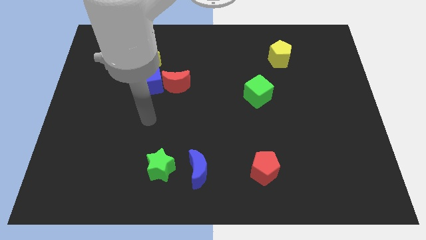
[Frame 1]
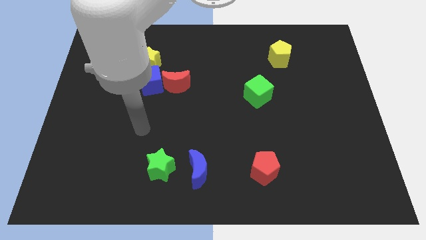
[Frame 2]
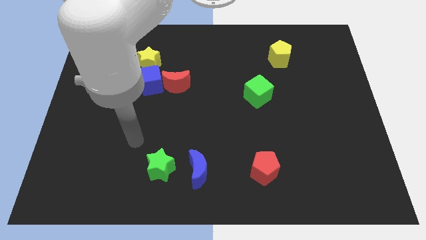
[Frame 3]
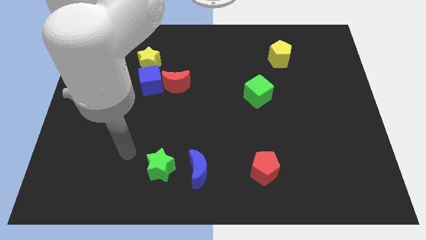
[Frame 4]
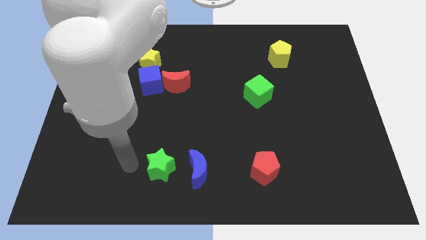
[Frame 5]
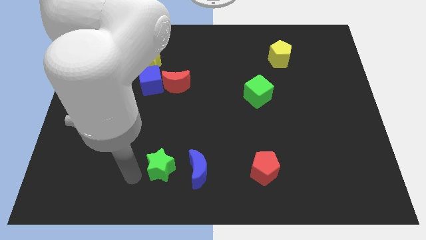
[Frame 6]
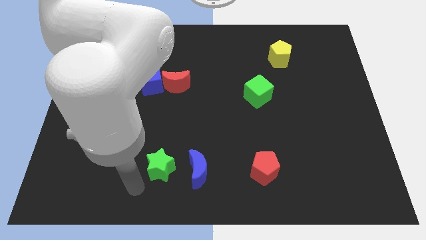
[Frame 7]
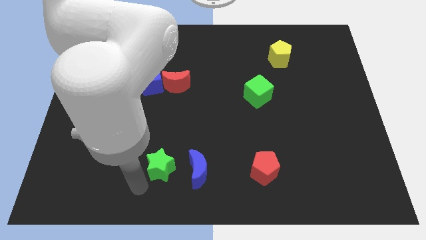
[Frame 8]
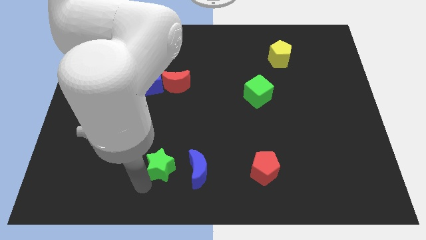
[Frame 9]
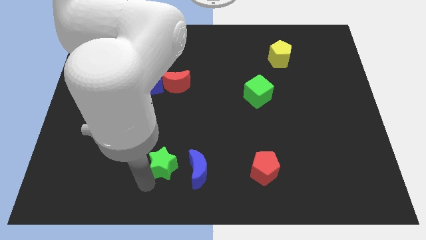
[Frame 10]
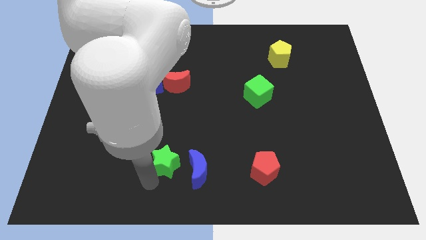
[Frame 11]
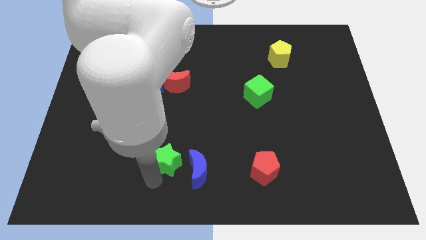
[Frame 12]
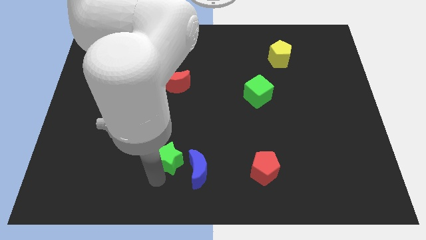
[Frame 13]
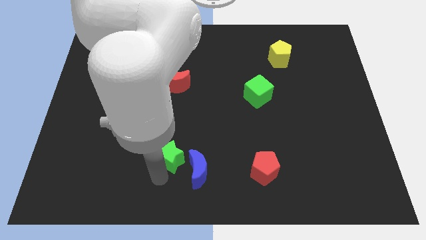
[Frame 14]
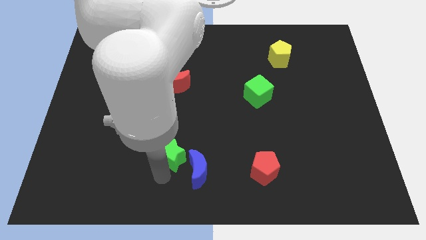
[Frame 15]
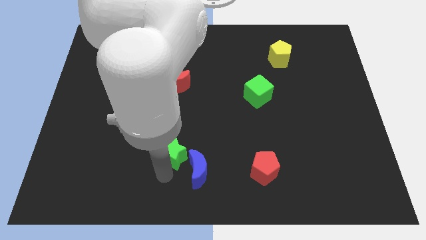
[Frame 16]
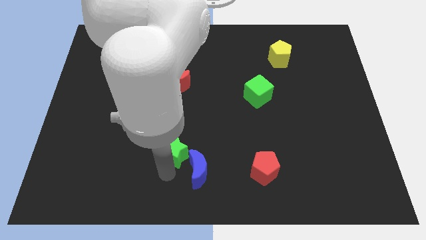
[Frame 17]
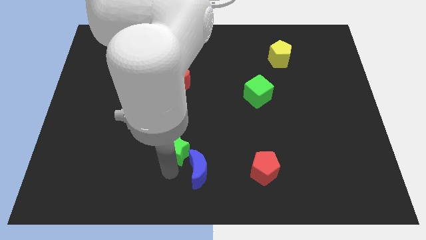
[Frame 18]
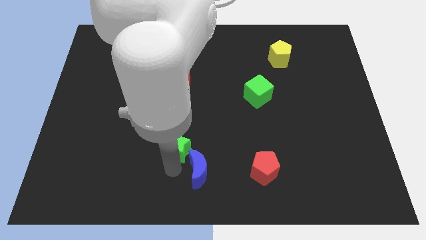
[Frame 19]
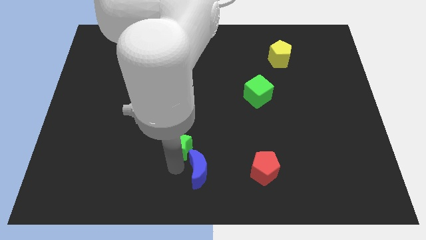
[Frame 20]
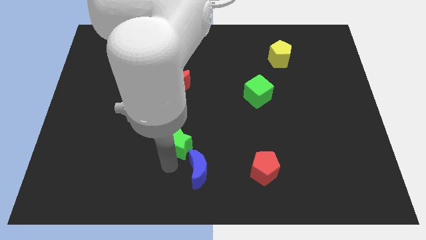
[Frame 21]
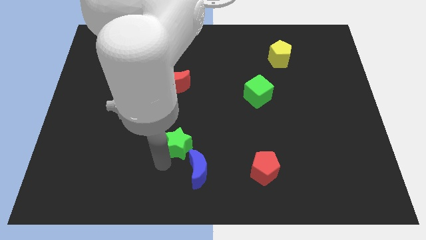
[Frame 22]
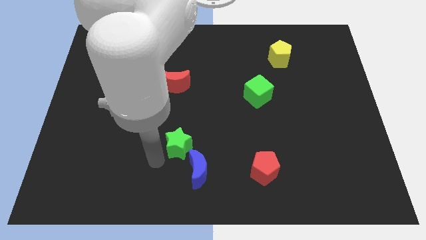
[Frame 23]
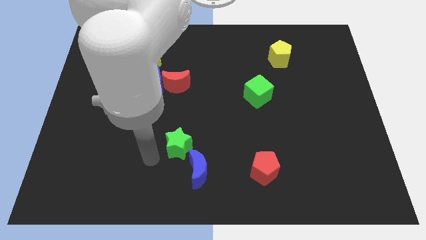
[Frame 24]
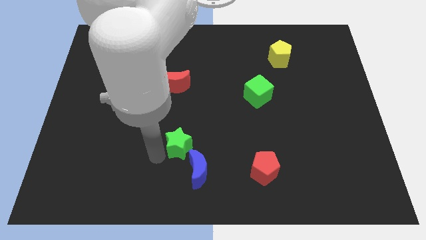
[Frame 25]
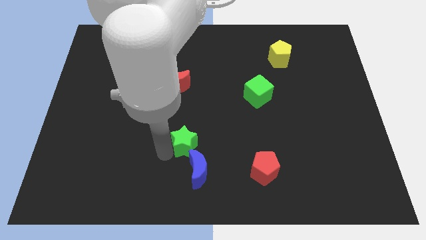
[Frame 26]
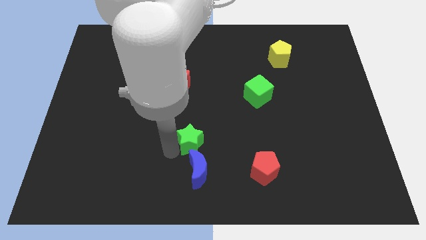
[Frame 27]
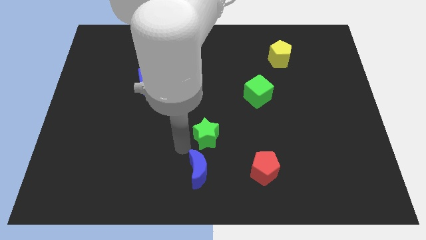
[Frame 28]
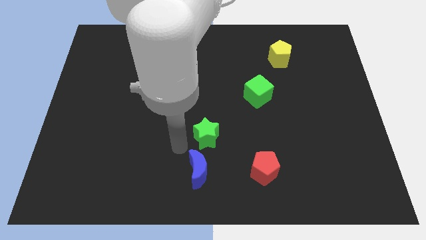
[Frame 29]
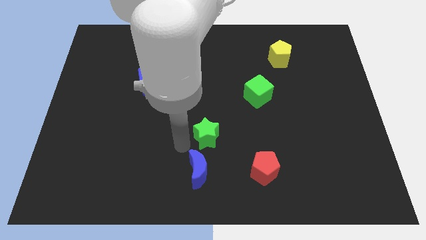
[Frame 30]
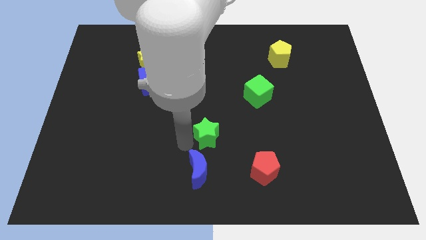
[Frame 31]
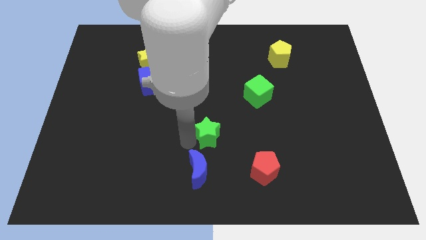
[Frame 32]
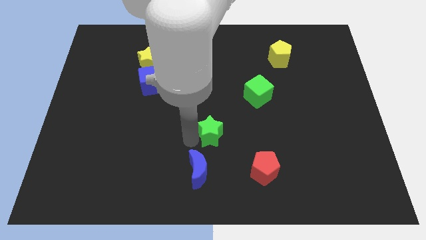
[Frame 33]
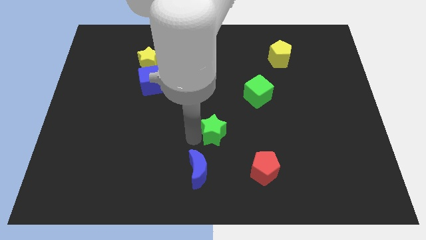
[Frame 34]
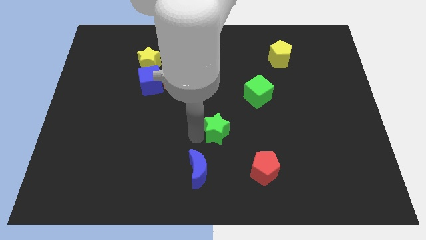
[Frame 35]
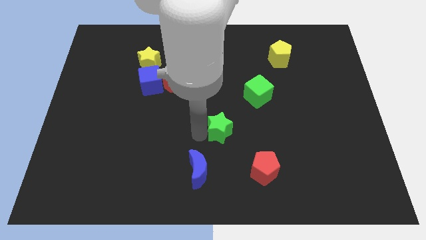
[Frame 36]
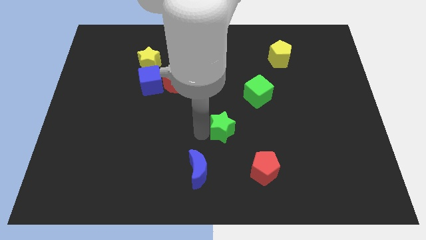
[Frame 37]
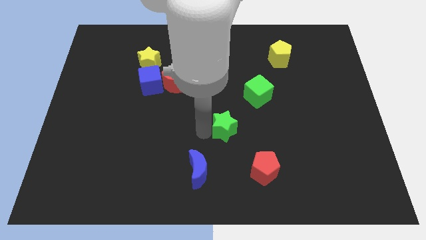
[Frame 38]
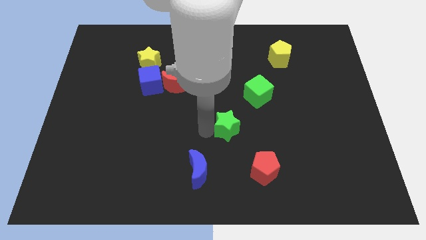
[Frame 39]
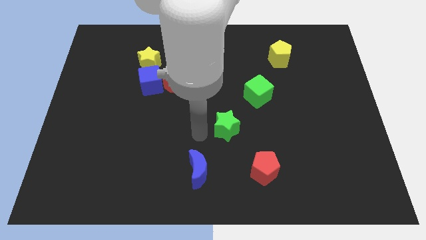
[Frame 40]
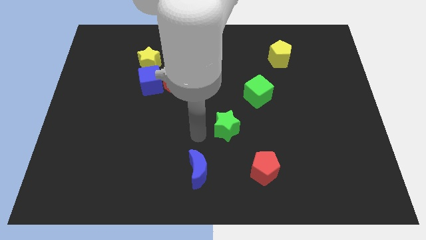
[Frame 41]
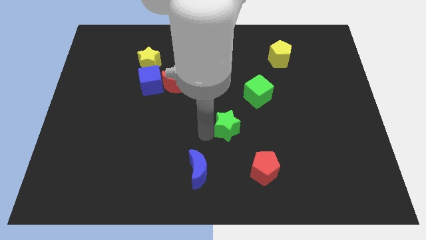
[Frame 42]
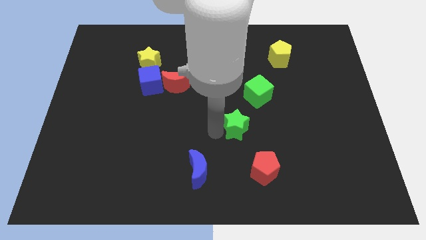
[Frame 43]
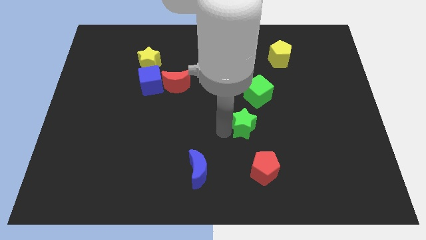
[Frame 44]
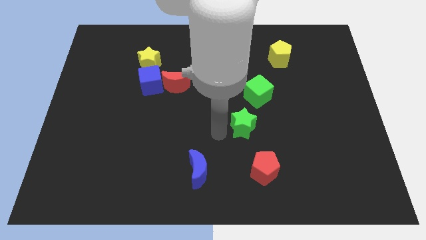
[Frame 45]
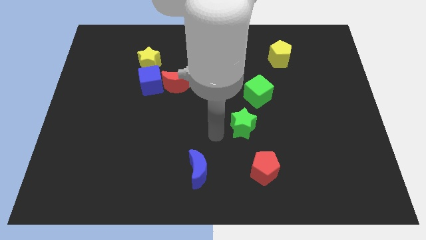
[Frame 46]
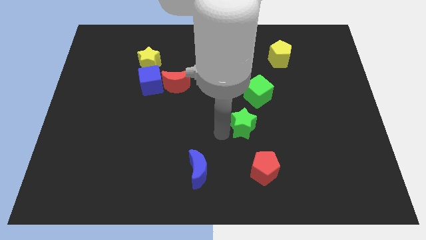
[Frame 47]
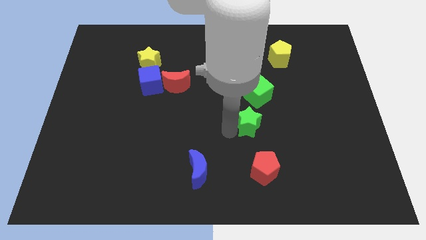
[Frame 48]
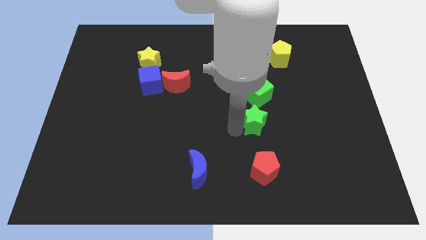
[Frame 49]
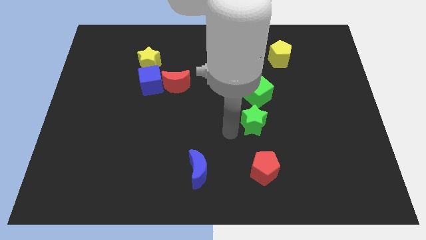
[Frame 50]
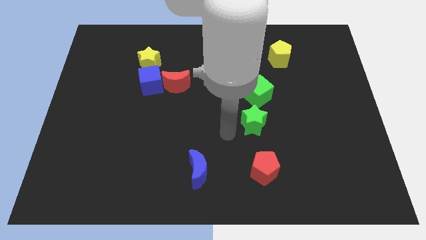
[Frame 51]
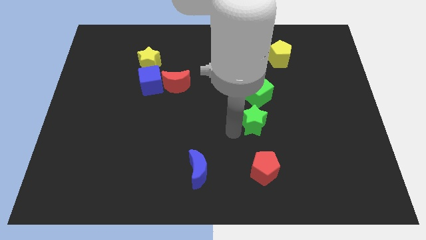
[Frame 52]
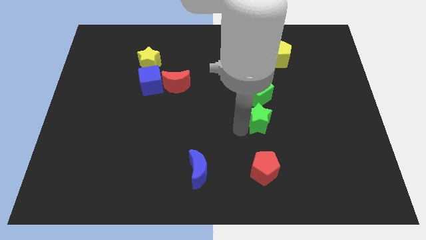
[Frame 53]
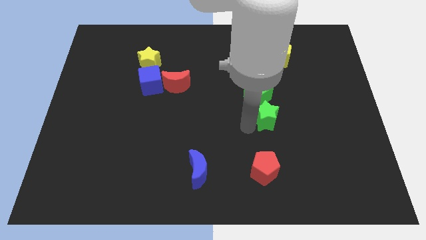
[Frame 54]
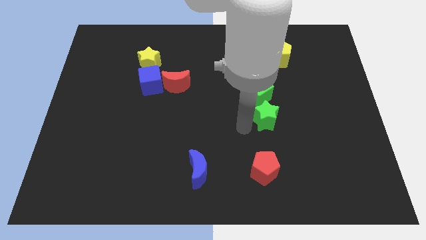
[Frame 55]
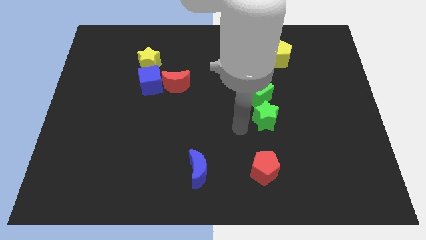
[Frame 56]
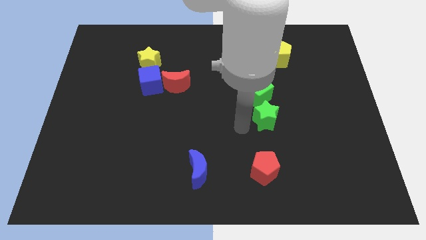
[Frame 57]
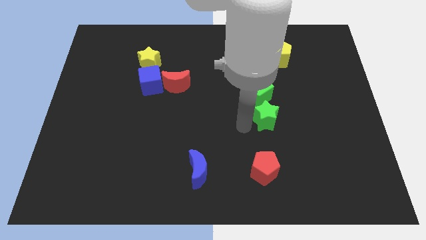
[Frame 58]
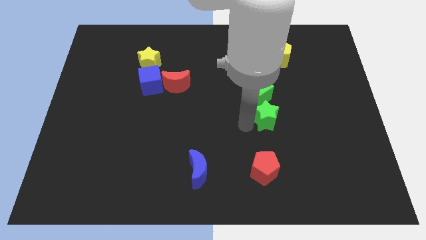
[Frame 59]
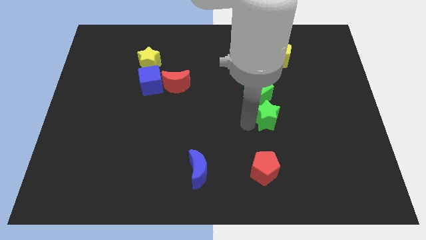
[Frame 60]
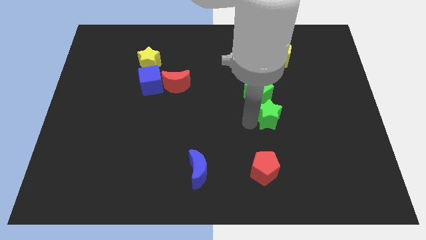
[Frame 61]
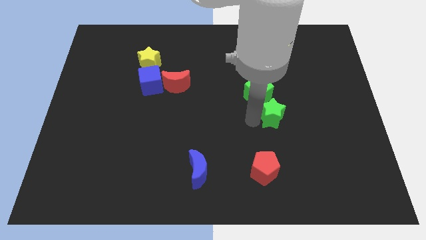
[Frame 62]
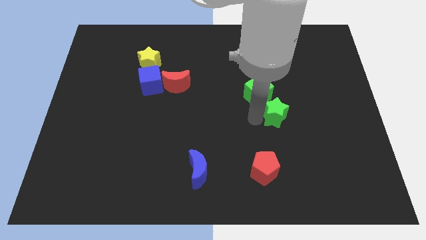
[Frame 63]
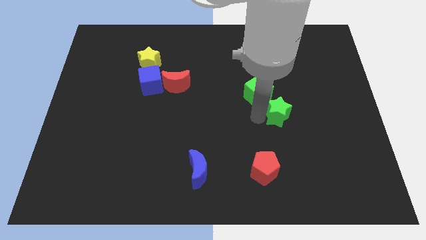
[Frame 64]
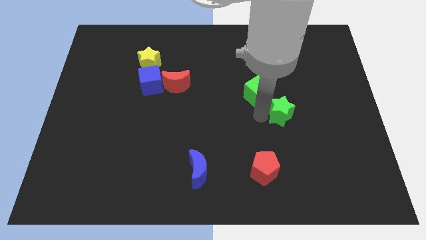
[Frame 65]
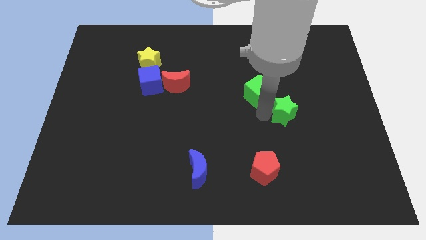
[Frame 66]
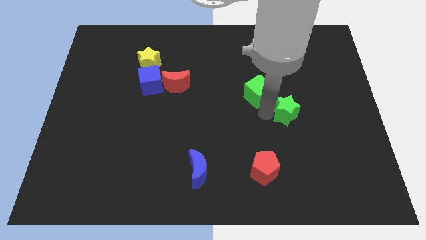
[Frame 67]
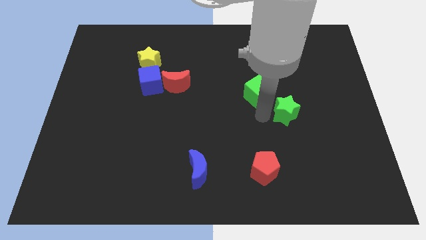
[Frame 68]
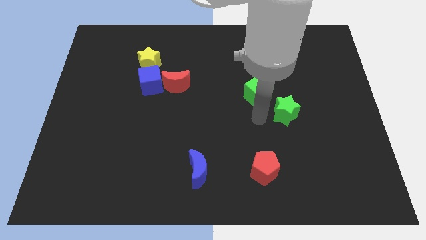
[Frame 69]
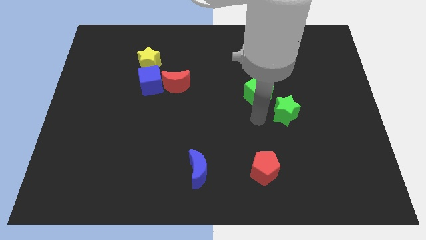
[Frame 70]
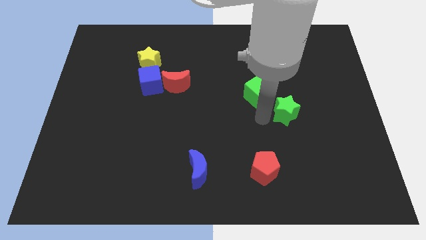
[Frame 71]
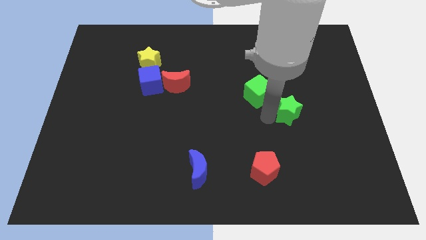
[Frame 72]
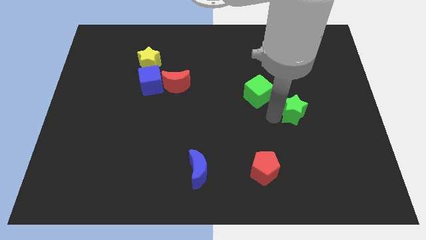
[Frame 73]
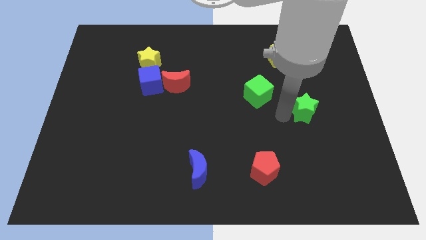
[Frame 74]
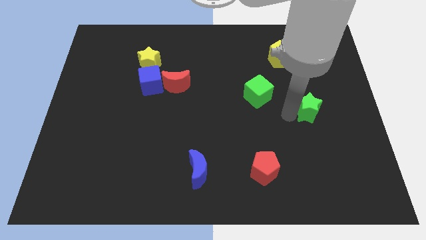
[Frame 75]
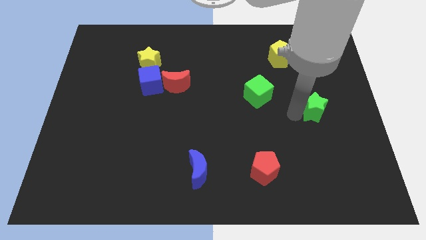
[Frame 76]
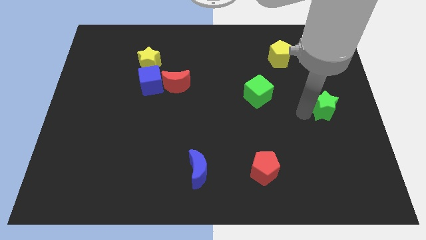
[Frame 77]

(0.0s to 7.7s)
push the green star to the right side
